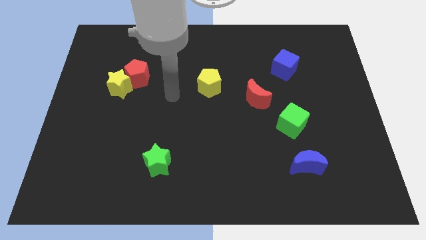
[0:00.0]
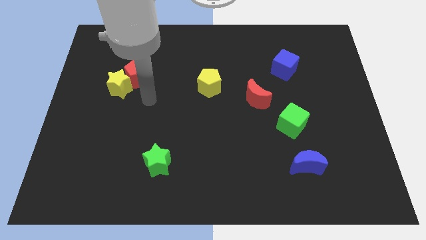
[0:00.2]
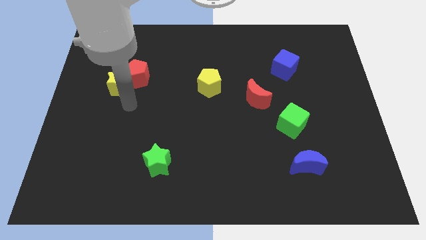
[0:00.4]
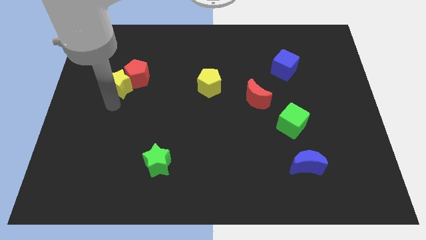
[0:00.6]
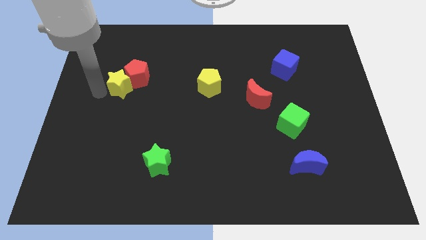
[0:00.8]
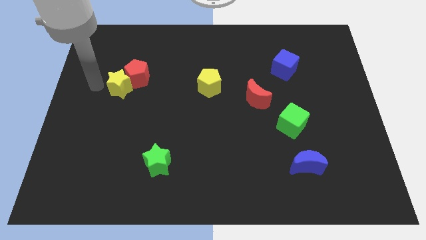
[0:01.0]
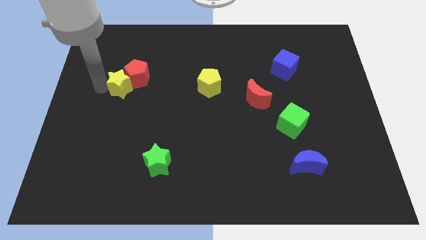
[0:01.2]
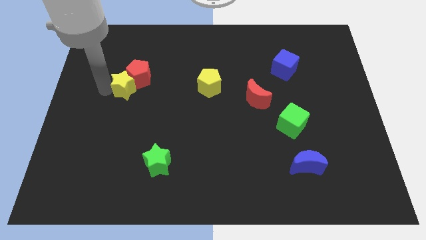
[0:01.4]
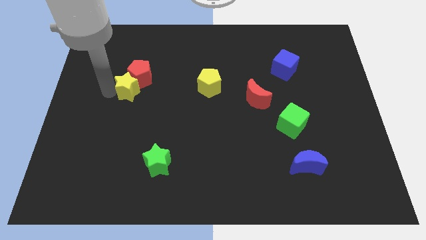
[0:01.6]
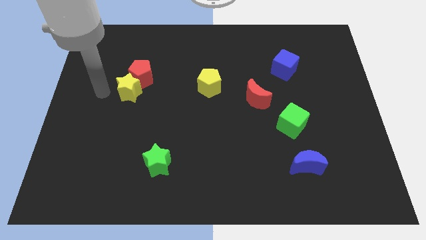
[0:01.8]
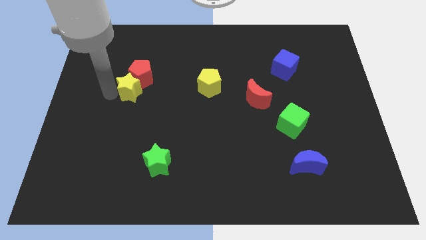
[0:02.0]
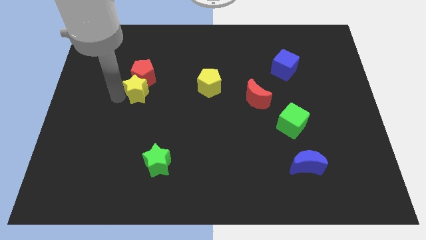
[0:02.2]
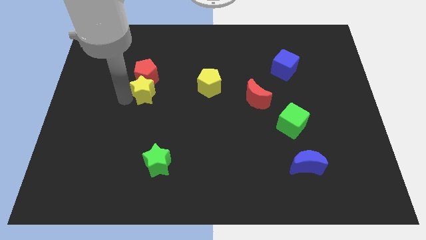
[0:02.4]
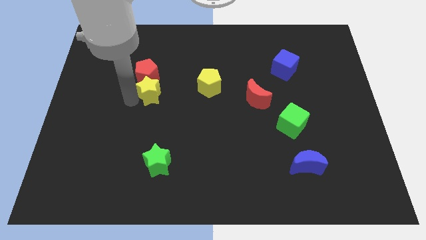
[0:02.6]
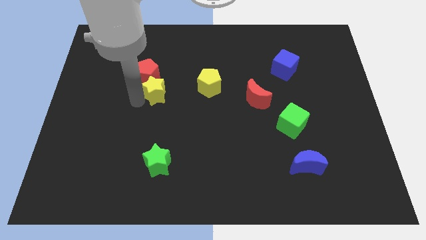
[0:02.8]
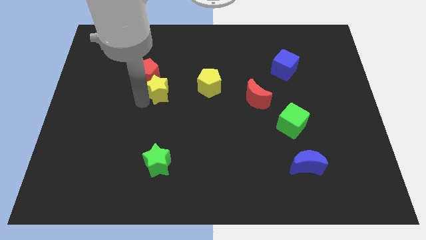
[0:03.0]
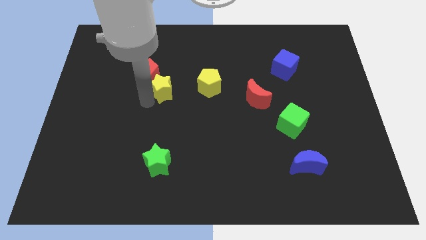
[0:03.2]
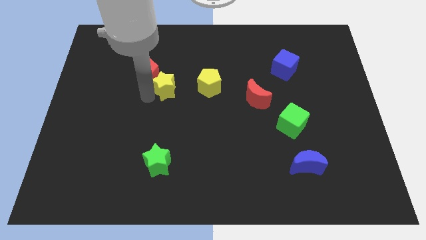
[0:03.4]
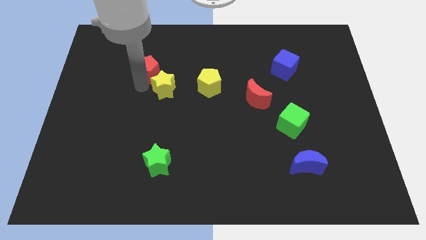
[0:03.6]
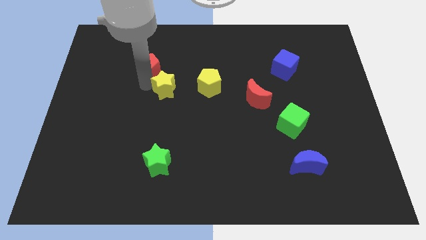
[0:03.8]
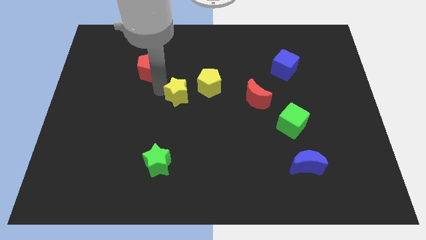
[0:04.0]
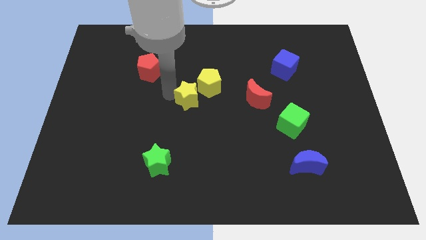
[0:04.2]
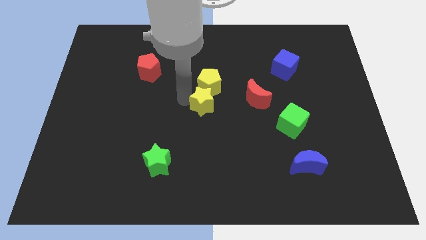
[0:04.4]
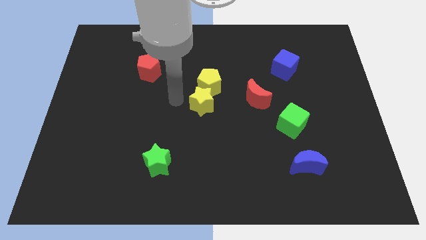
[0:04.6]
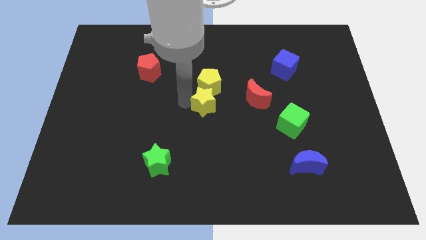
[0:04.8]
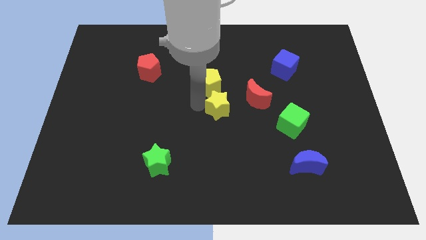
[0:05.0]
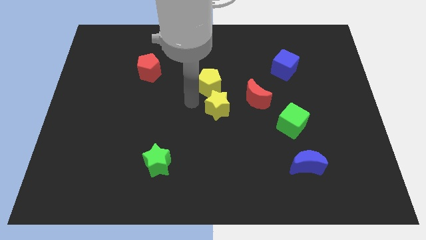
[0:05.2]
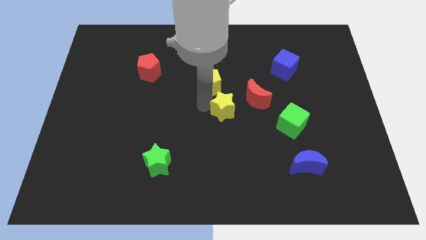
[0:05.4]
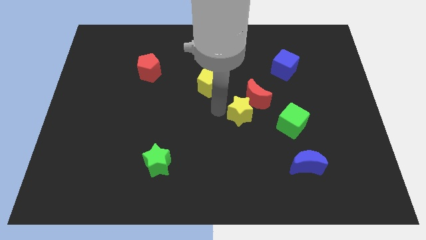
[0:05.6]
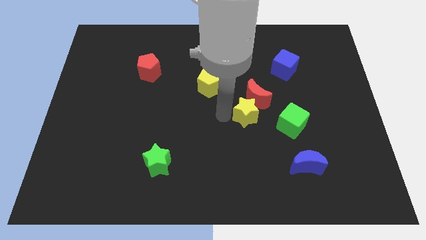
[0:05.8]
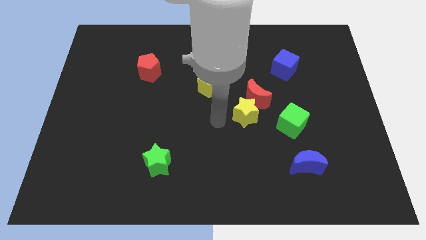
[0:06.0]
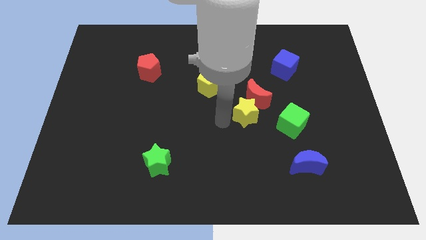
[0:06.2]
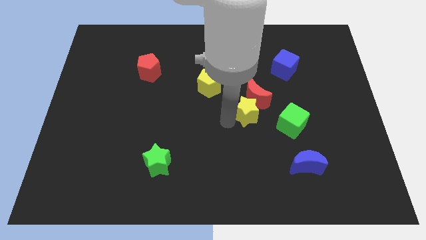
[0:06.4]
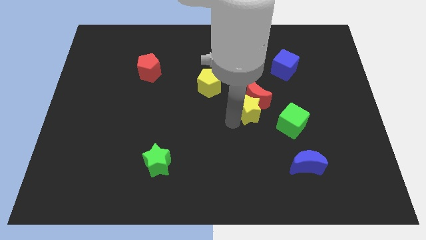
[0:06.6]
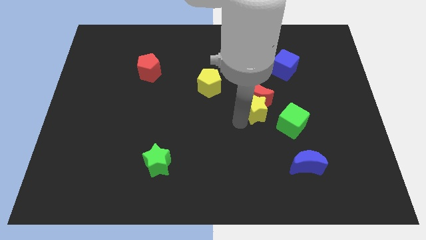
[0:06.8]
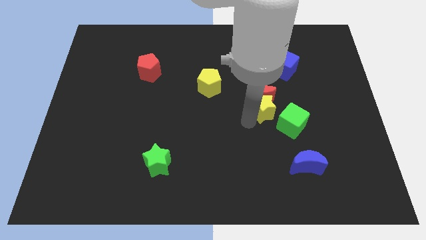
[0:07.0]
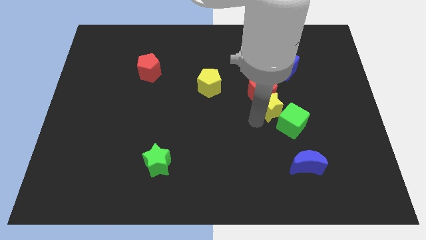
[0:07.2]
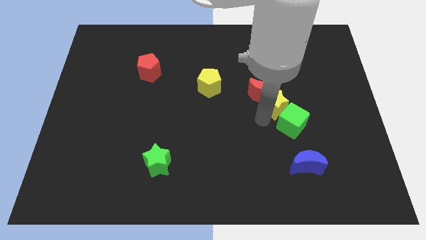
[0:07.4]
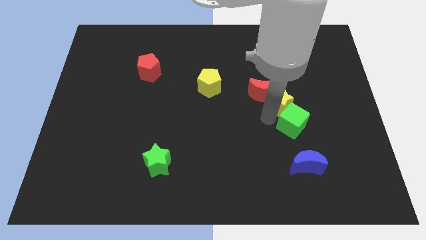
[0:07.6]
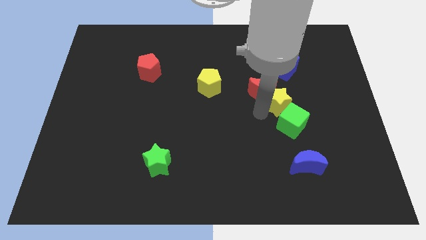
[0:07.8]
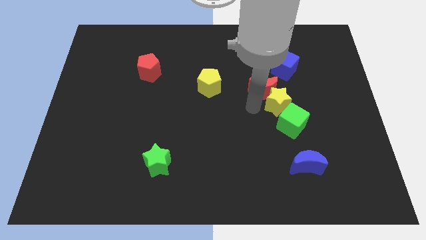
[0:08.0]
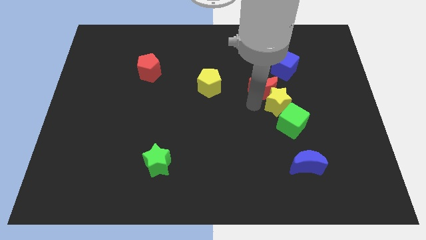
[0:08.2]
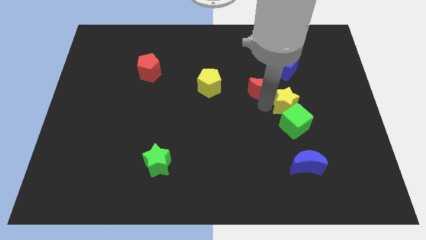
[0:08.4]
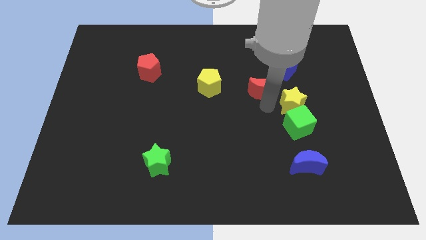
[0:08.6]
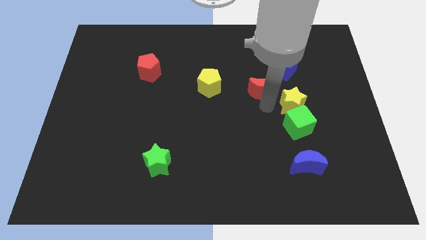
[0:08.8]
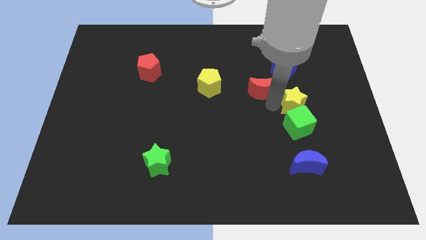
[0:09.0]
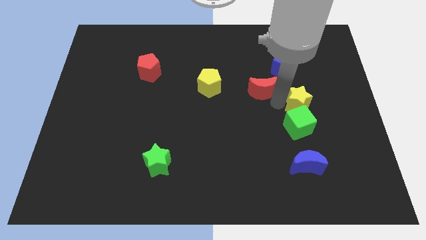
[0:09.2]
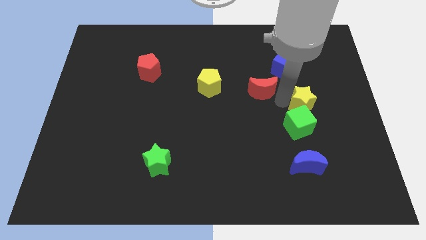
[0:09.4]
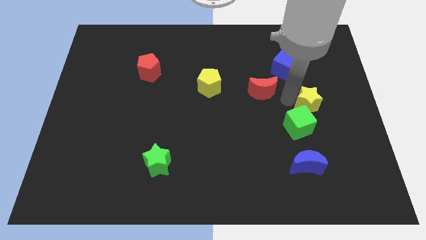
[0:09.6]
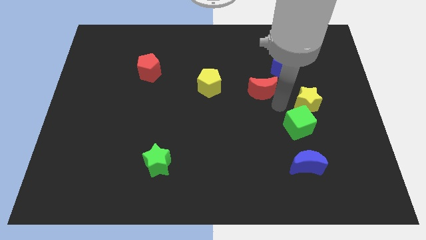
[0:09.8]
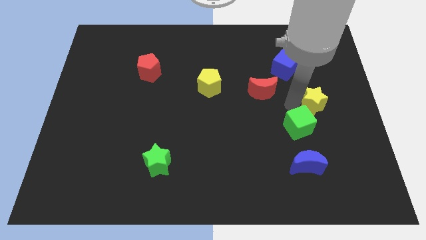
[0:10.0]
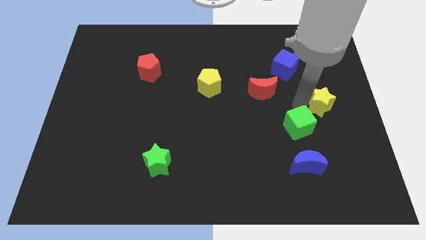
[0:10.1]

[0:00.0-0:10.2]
push the yellow star to the center right

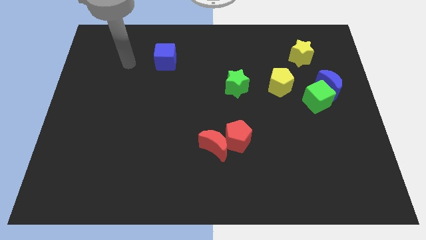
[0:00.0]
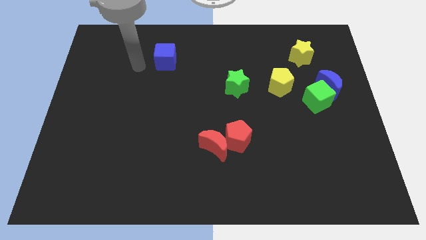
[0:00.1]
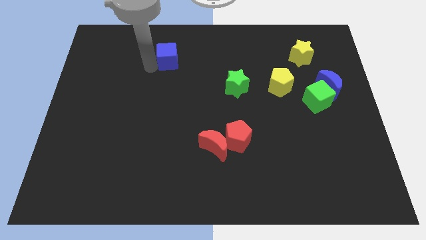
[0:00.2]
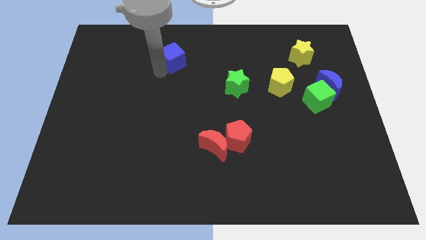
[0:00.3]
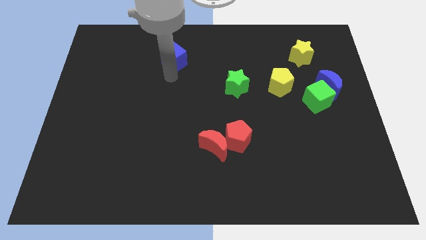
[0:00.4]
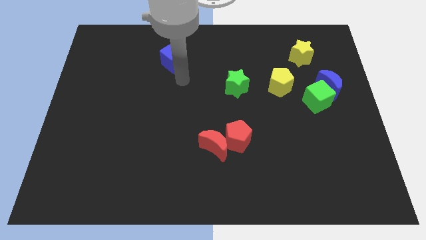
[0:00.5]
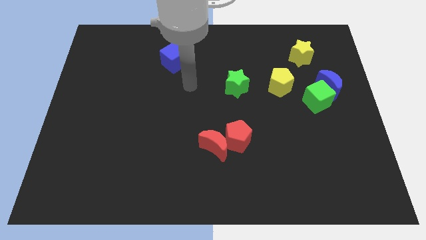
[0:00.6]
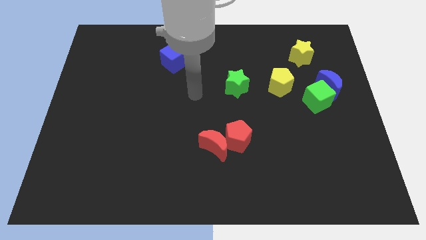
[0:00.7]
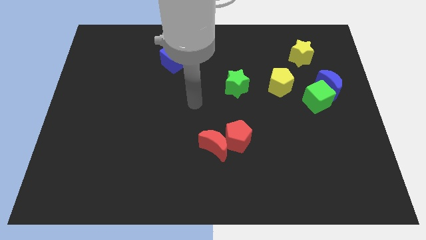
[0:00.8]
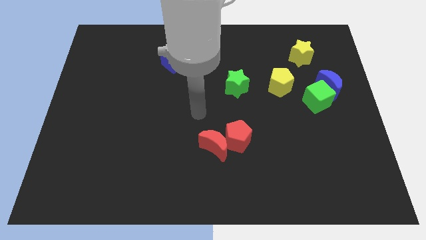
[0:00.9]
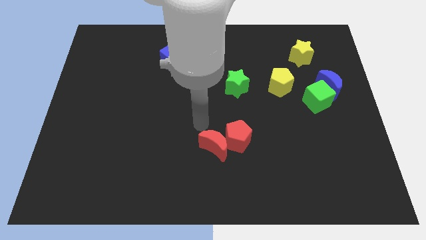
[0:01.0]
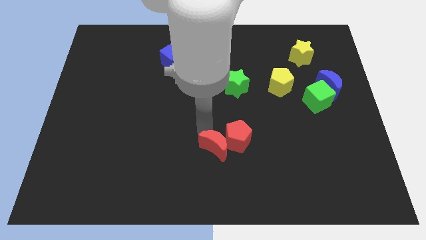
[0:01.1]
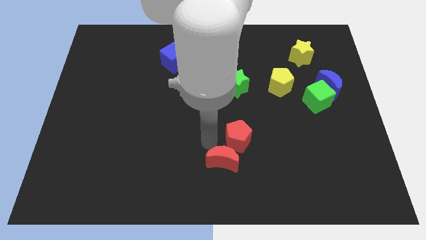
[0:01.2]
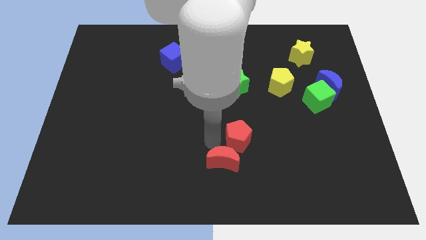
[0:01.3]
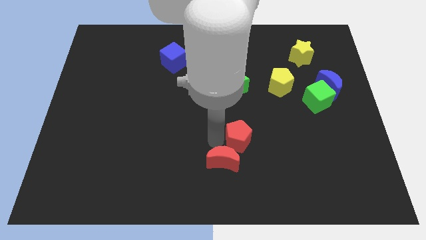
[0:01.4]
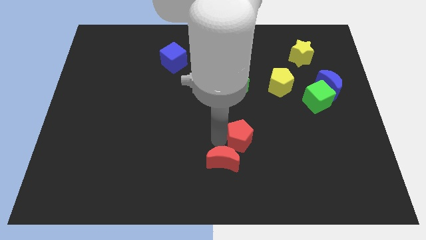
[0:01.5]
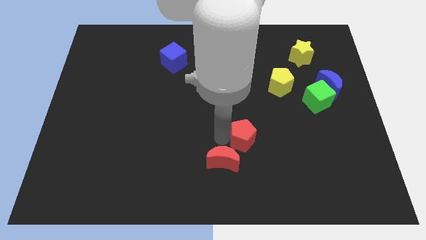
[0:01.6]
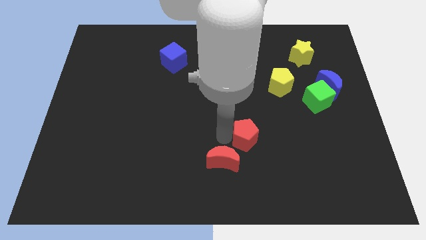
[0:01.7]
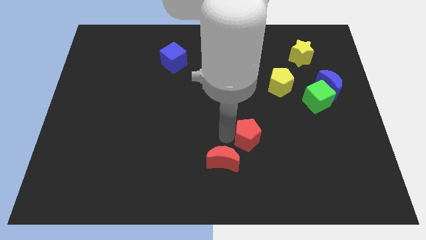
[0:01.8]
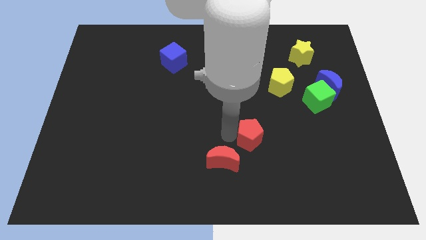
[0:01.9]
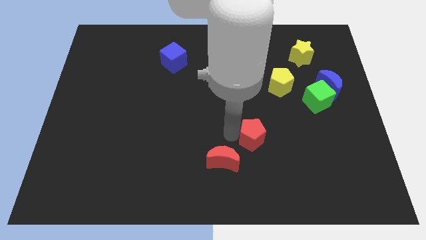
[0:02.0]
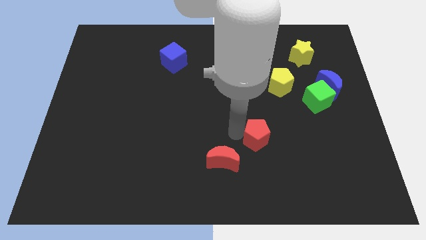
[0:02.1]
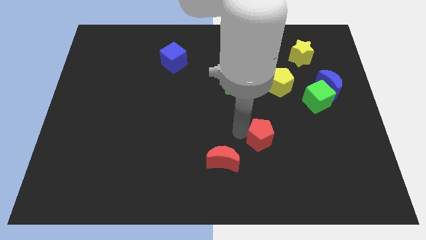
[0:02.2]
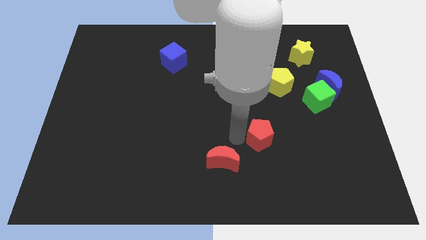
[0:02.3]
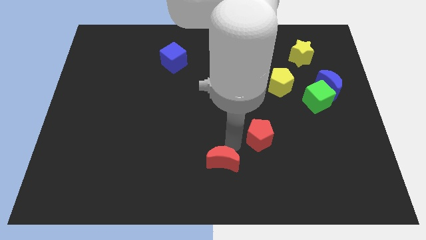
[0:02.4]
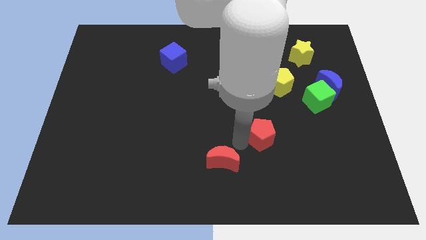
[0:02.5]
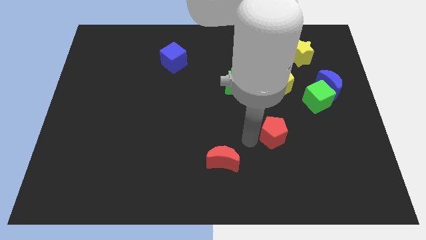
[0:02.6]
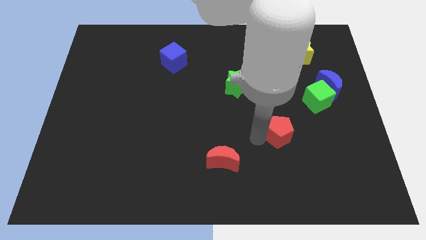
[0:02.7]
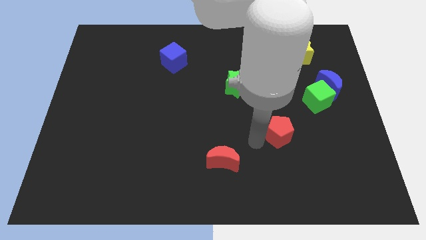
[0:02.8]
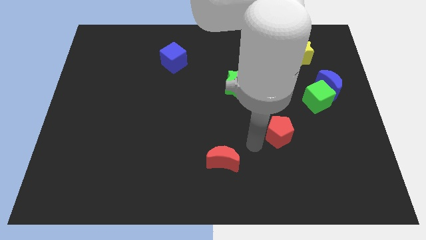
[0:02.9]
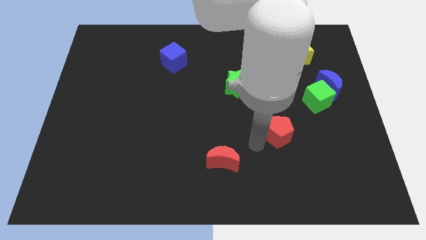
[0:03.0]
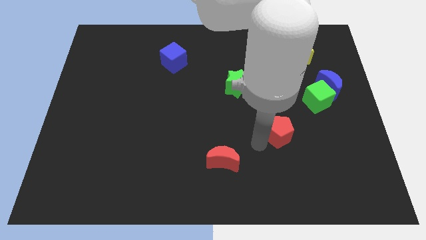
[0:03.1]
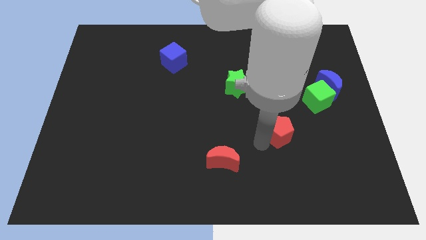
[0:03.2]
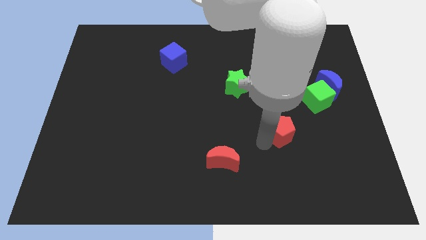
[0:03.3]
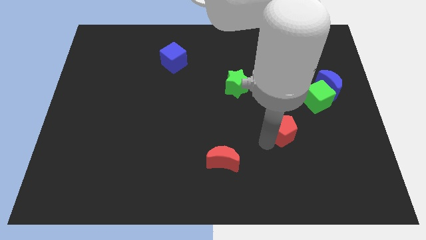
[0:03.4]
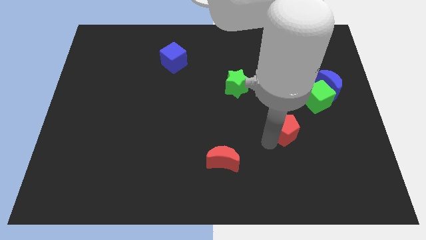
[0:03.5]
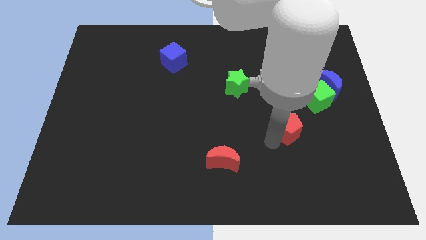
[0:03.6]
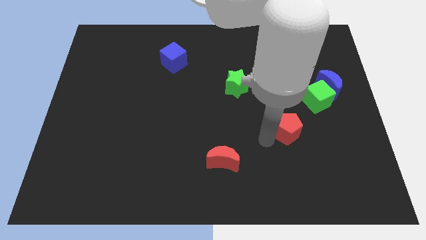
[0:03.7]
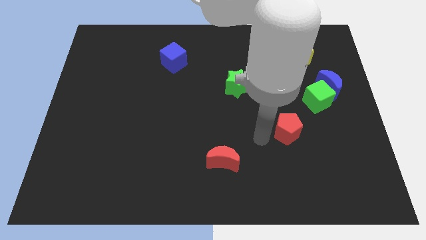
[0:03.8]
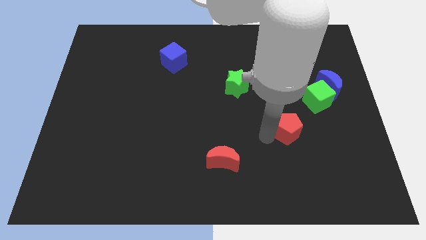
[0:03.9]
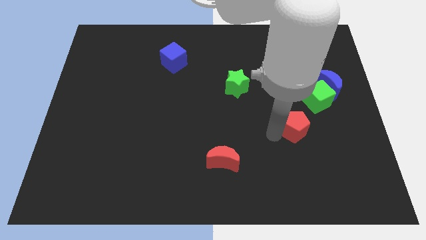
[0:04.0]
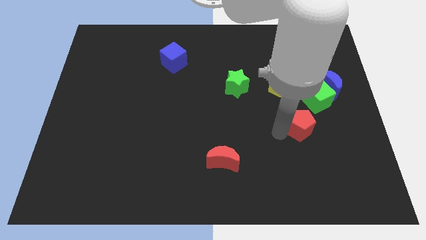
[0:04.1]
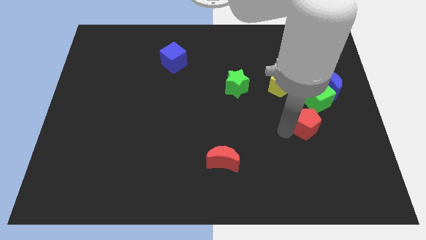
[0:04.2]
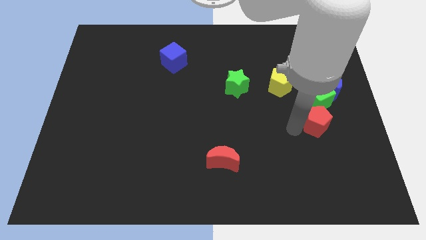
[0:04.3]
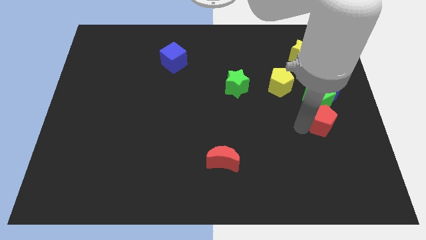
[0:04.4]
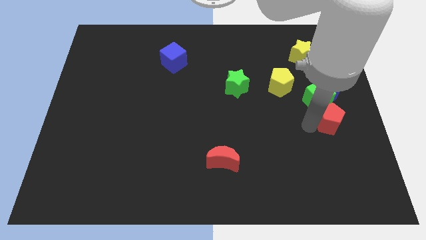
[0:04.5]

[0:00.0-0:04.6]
slide the red pentagon to the right side of the board
